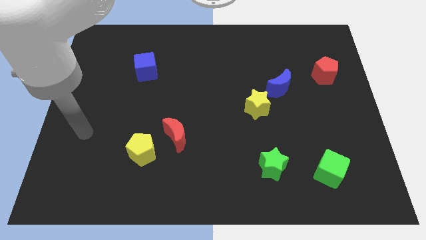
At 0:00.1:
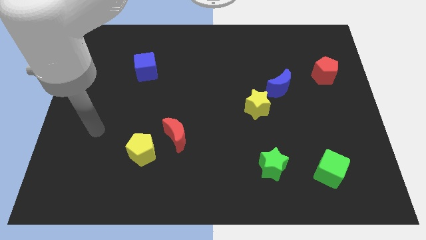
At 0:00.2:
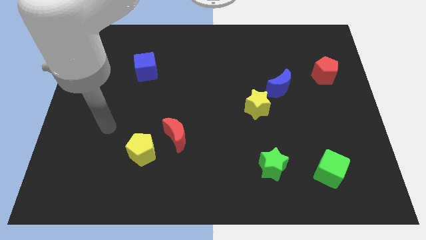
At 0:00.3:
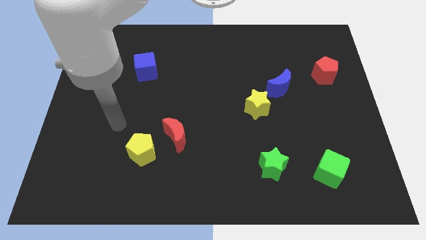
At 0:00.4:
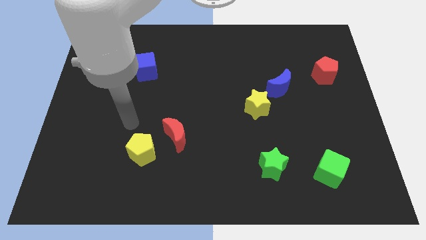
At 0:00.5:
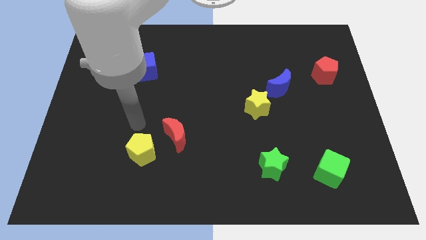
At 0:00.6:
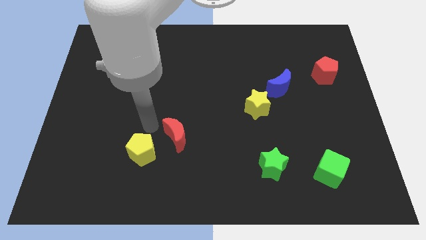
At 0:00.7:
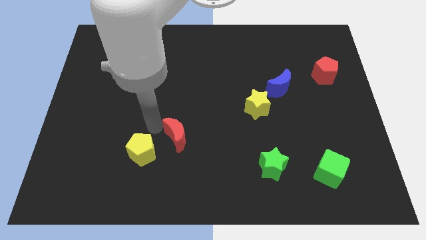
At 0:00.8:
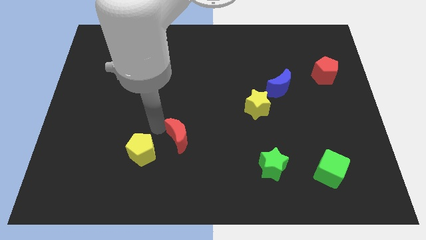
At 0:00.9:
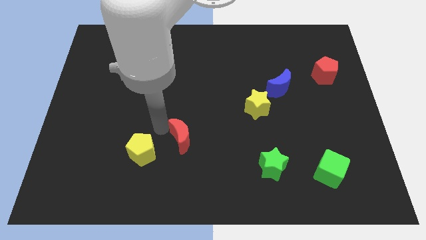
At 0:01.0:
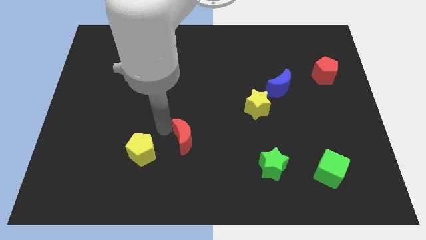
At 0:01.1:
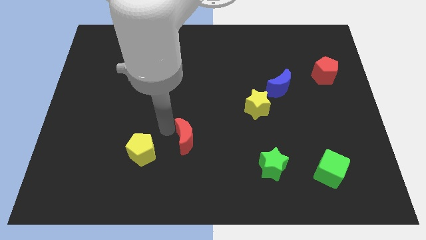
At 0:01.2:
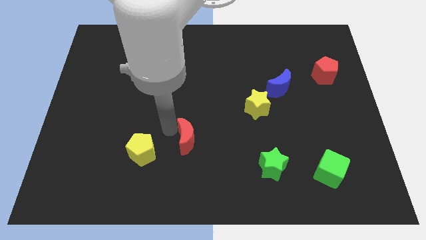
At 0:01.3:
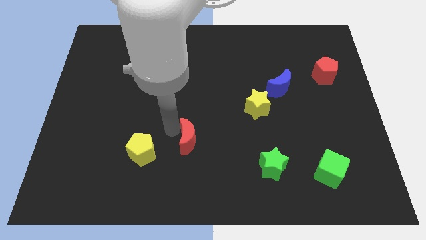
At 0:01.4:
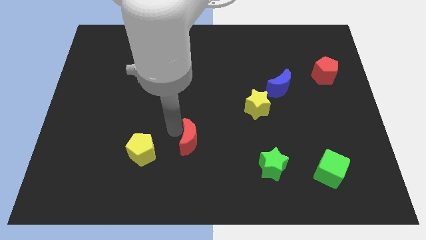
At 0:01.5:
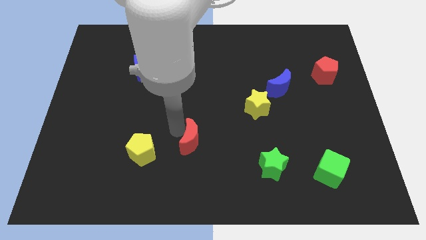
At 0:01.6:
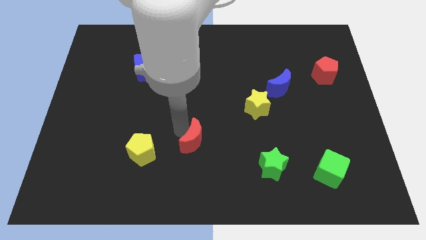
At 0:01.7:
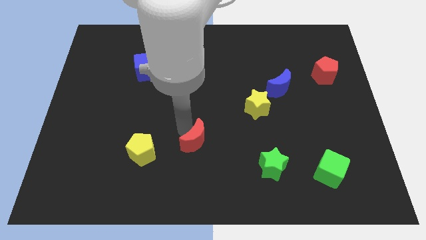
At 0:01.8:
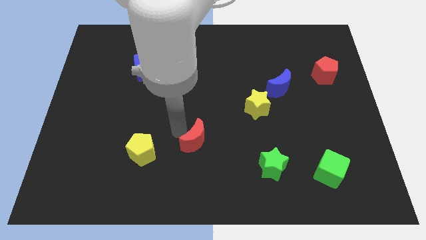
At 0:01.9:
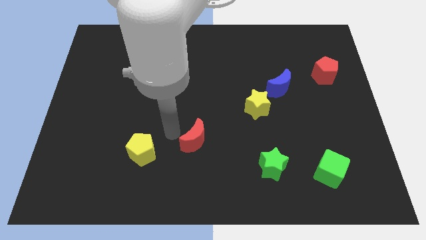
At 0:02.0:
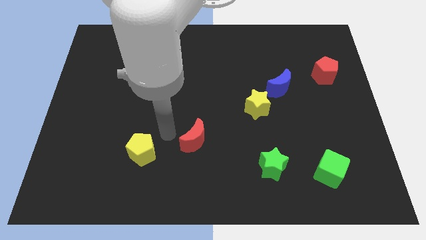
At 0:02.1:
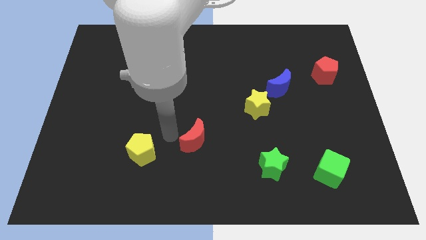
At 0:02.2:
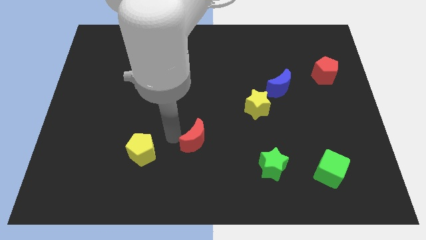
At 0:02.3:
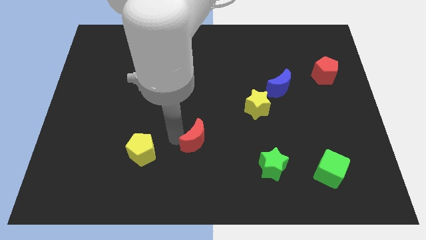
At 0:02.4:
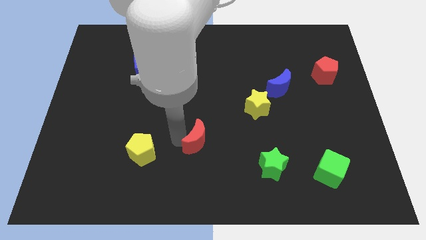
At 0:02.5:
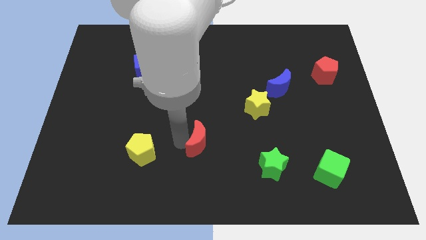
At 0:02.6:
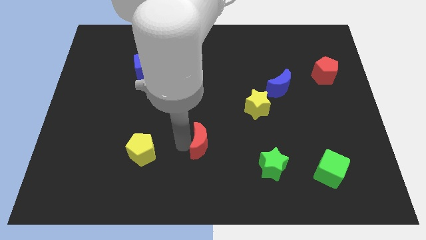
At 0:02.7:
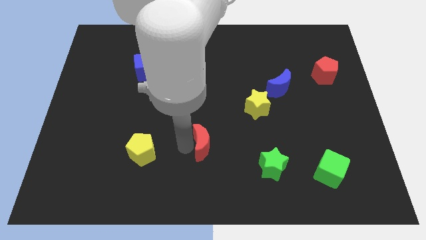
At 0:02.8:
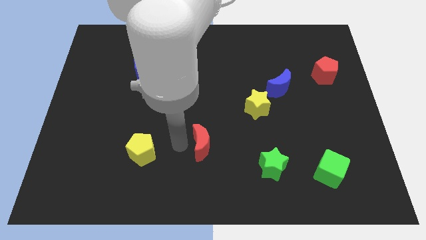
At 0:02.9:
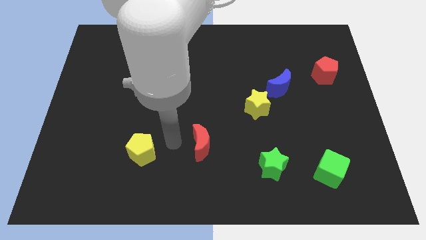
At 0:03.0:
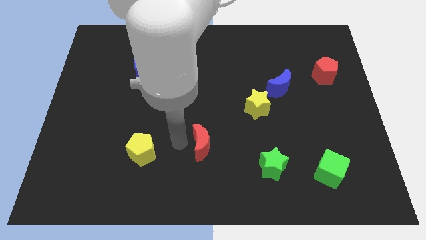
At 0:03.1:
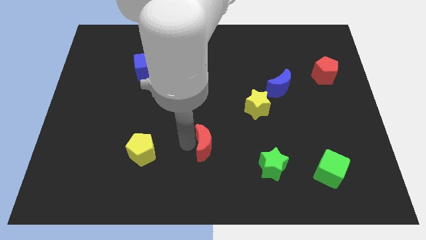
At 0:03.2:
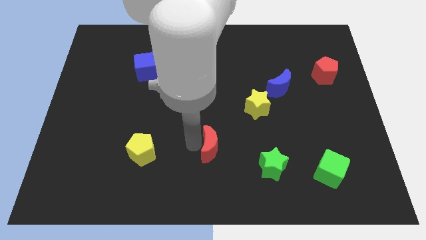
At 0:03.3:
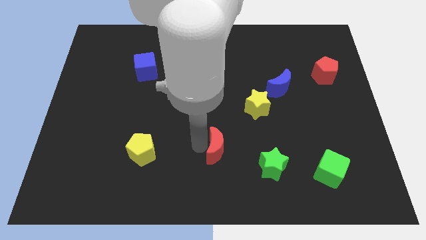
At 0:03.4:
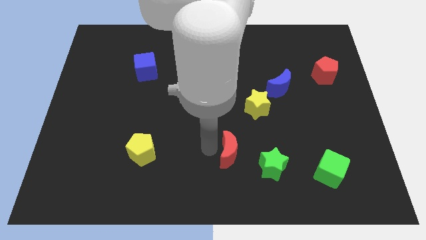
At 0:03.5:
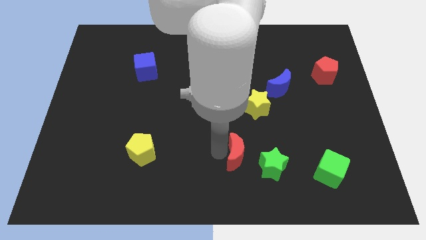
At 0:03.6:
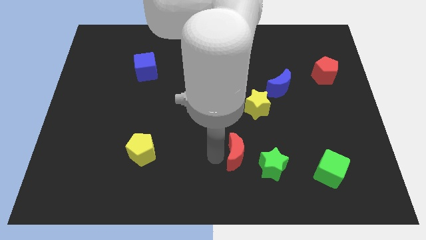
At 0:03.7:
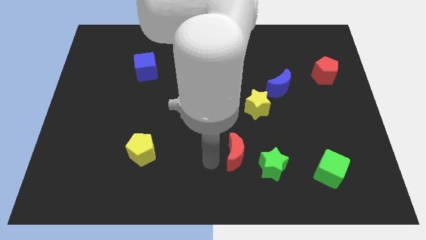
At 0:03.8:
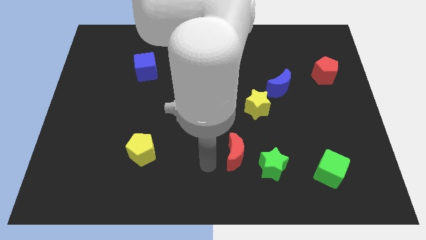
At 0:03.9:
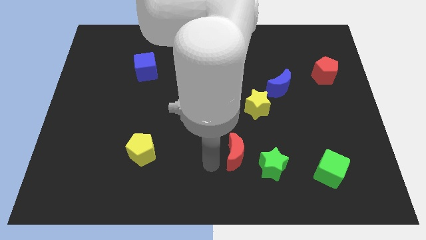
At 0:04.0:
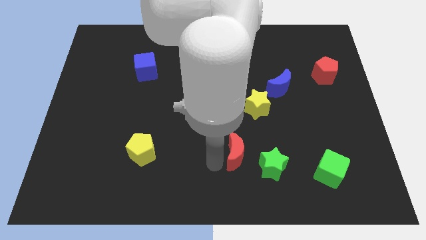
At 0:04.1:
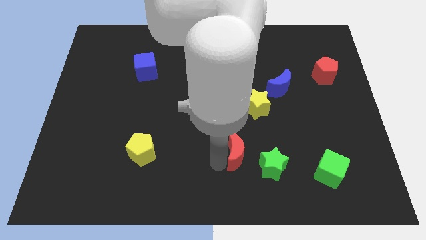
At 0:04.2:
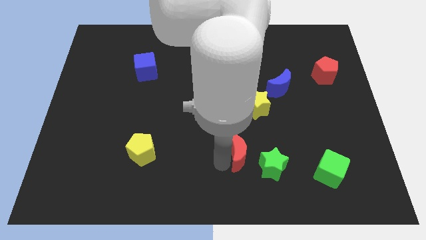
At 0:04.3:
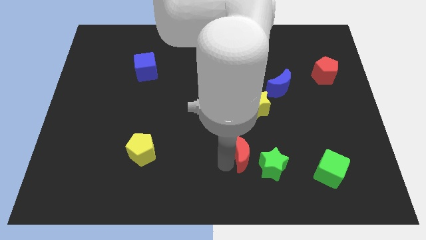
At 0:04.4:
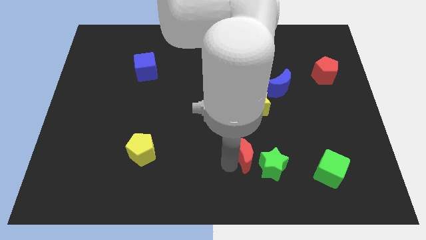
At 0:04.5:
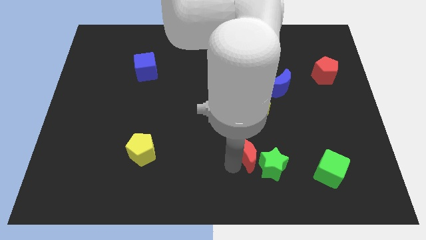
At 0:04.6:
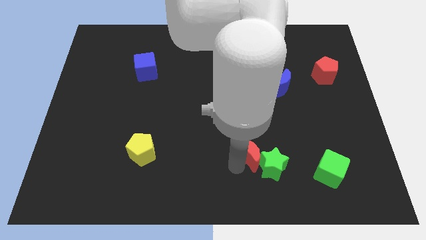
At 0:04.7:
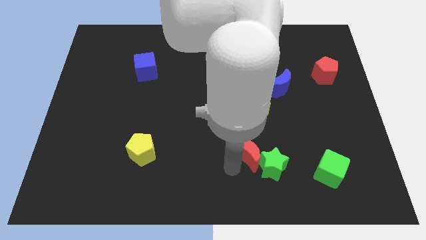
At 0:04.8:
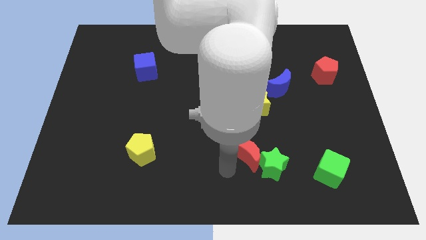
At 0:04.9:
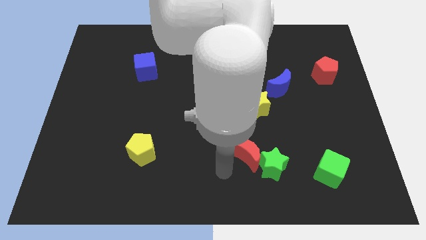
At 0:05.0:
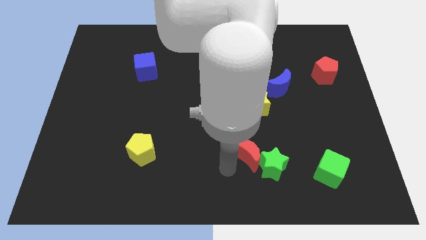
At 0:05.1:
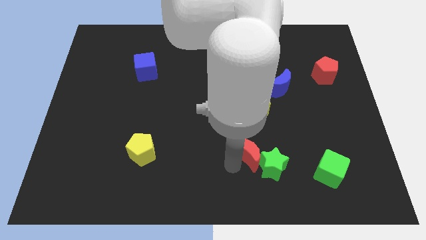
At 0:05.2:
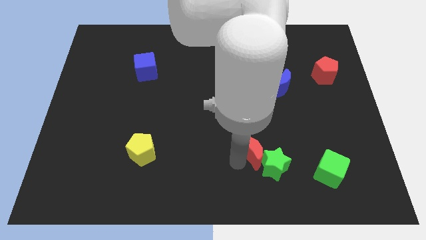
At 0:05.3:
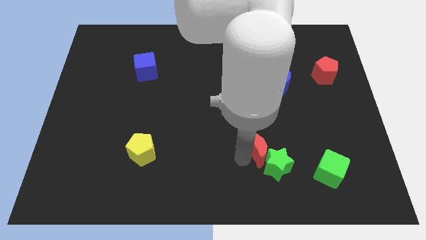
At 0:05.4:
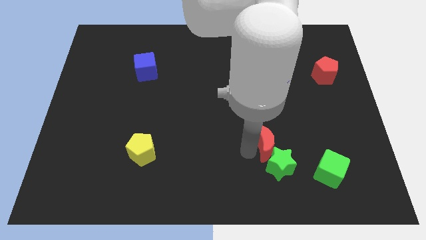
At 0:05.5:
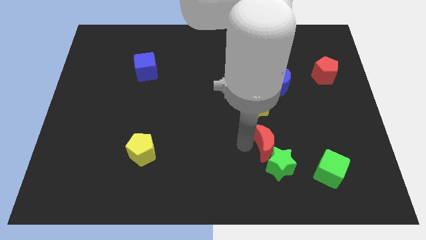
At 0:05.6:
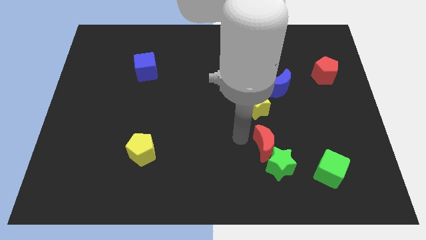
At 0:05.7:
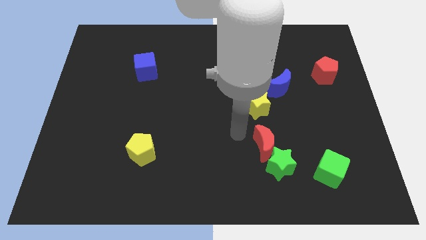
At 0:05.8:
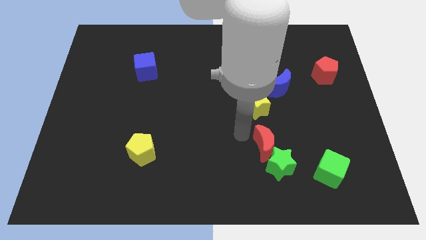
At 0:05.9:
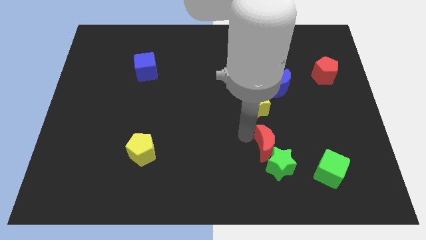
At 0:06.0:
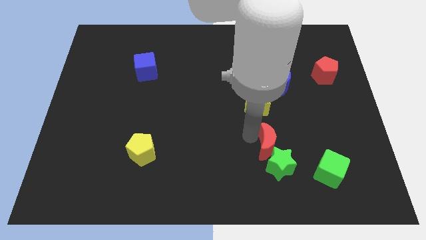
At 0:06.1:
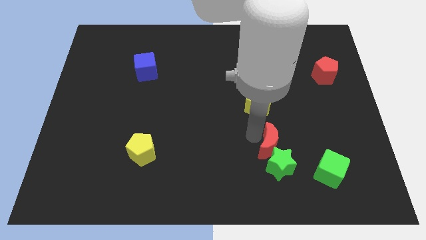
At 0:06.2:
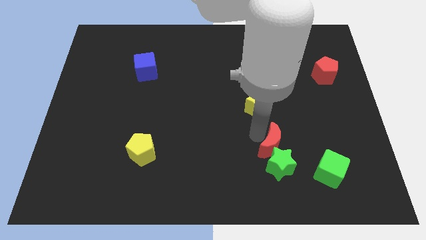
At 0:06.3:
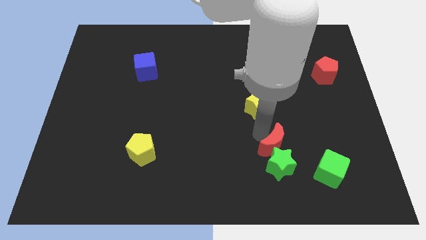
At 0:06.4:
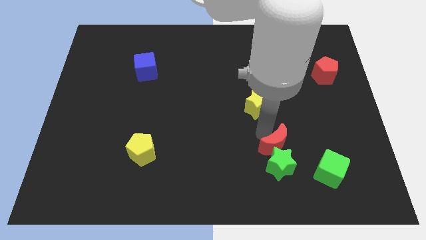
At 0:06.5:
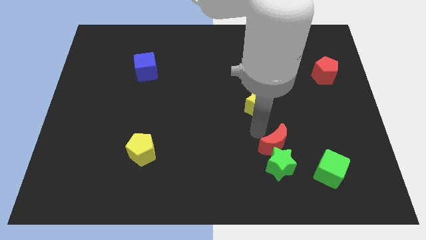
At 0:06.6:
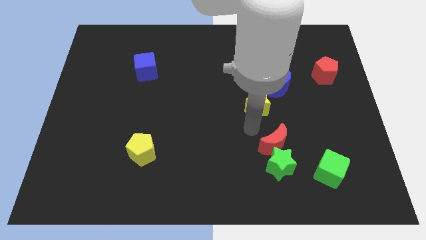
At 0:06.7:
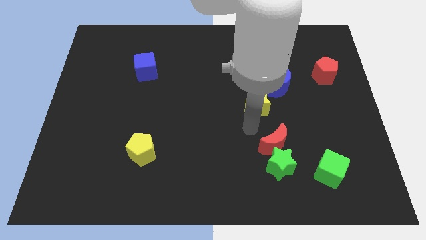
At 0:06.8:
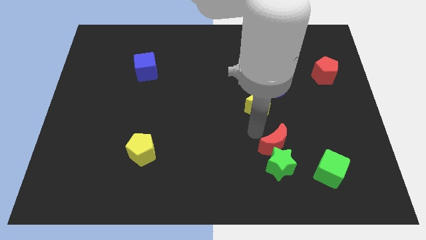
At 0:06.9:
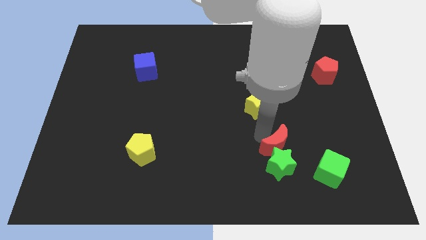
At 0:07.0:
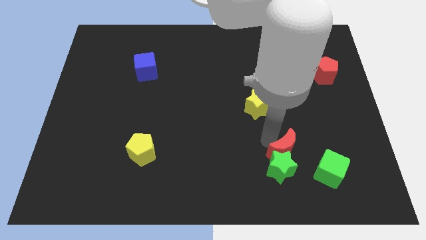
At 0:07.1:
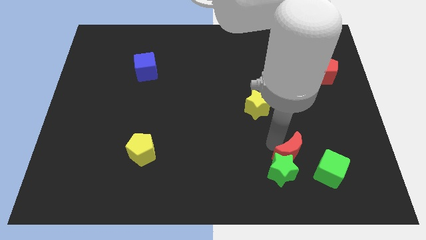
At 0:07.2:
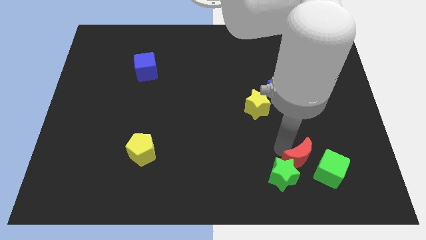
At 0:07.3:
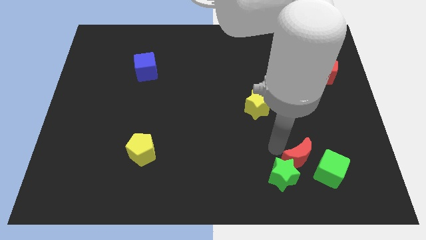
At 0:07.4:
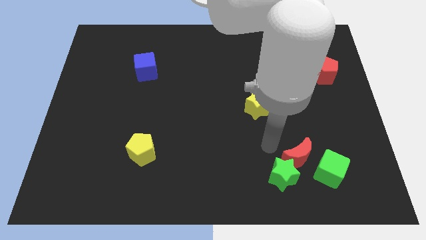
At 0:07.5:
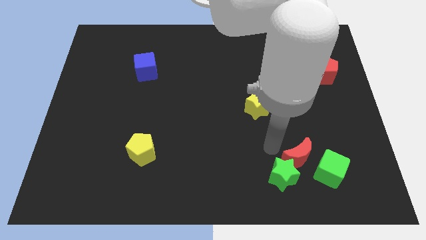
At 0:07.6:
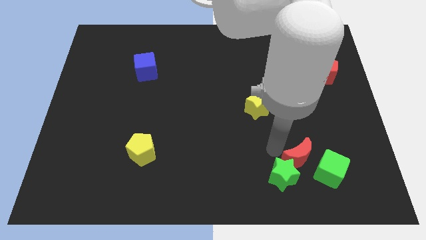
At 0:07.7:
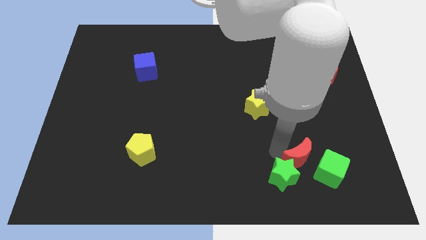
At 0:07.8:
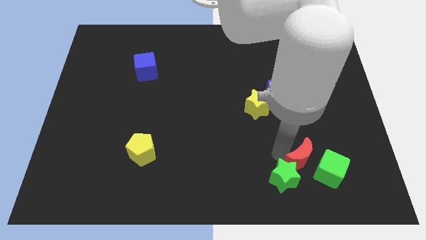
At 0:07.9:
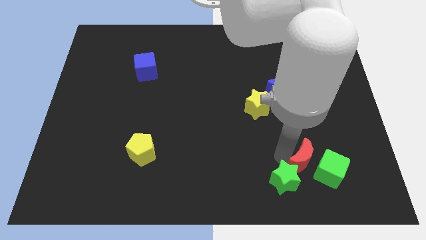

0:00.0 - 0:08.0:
push the red moon towards the green cube

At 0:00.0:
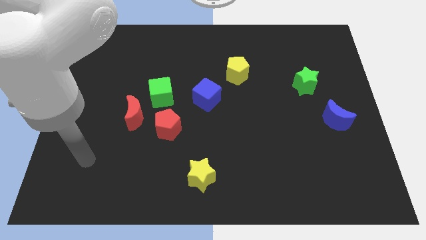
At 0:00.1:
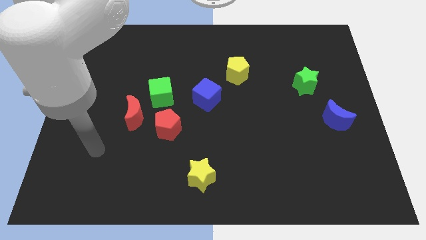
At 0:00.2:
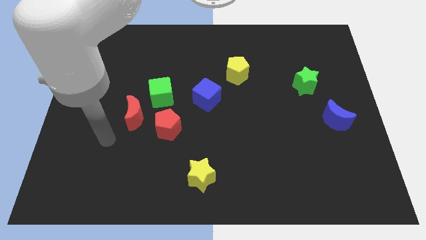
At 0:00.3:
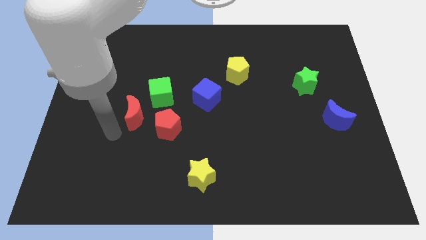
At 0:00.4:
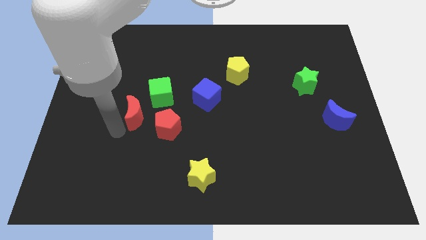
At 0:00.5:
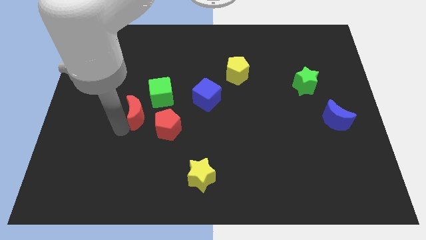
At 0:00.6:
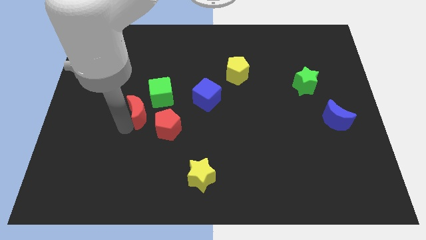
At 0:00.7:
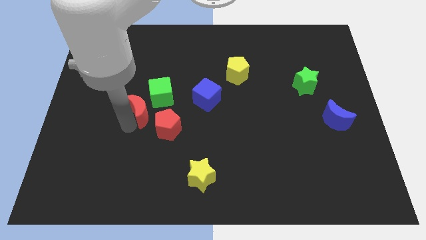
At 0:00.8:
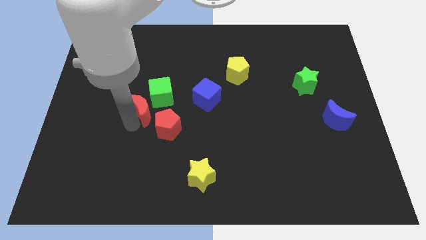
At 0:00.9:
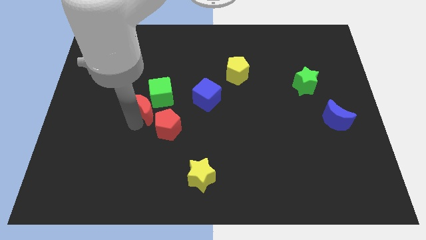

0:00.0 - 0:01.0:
push the red moon to the green cube
